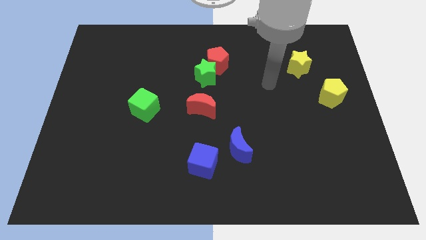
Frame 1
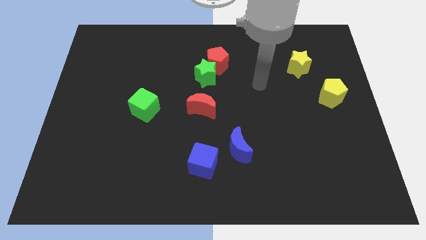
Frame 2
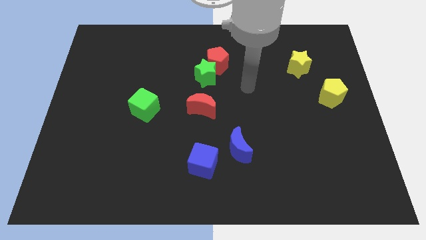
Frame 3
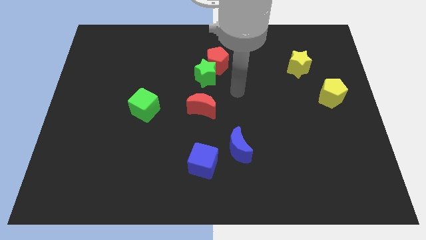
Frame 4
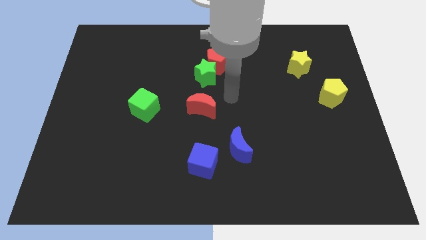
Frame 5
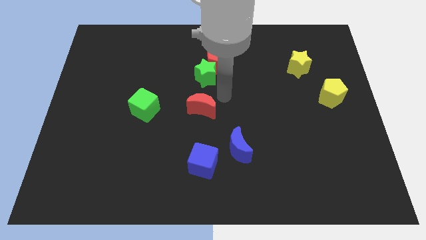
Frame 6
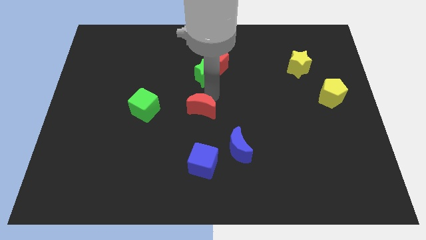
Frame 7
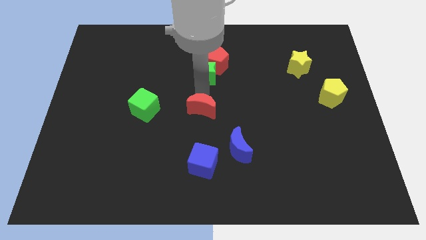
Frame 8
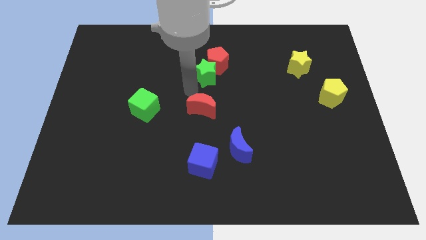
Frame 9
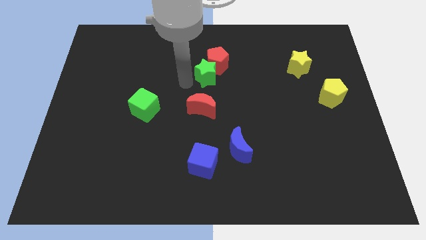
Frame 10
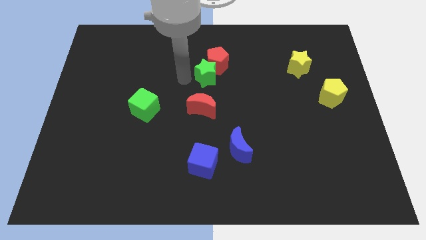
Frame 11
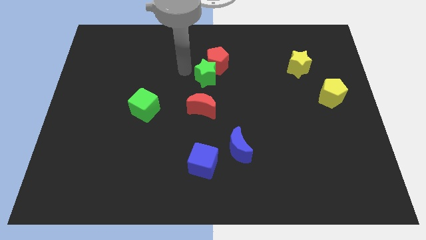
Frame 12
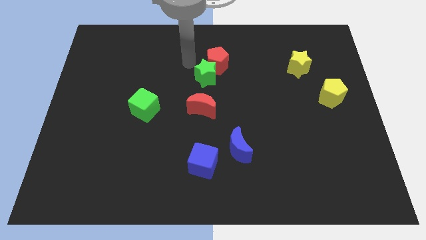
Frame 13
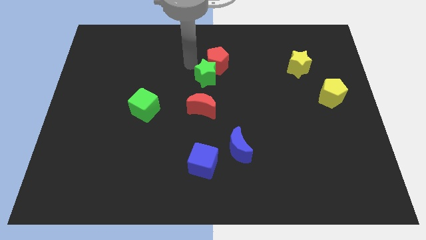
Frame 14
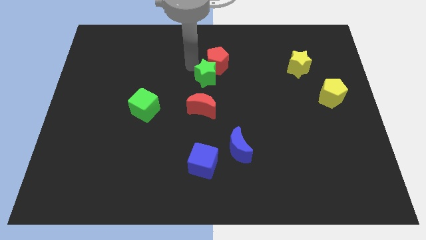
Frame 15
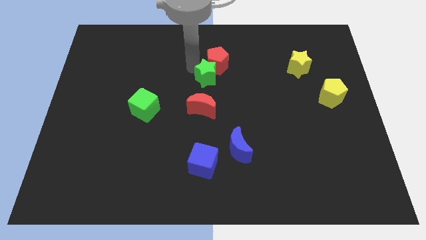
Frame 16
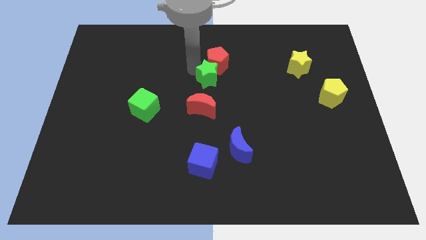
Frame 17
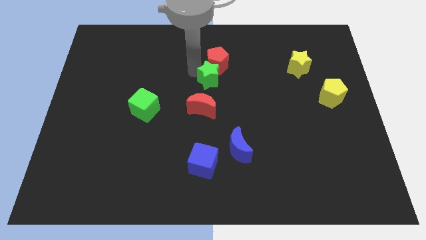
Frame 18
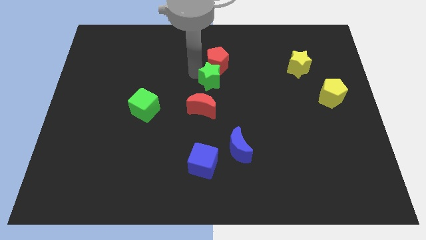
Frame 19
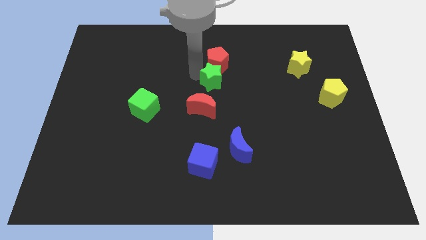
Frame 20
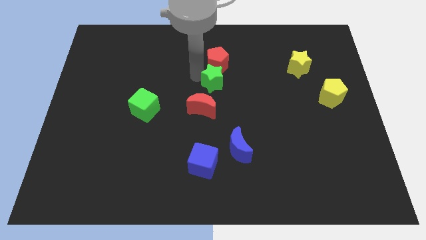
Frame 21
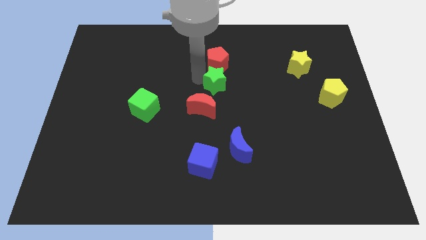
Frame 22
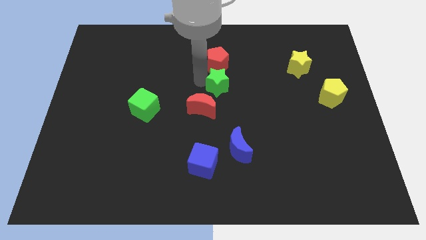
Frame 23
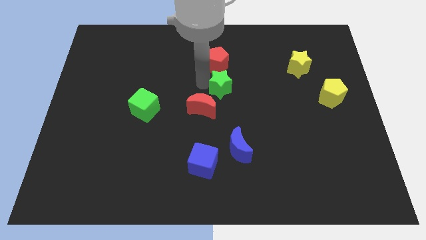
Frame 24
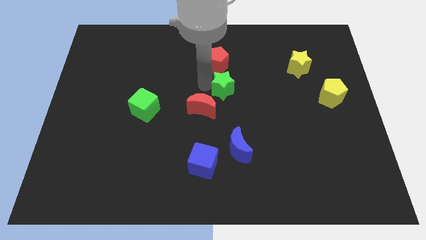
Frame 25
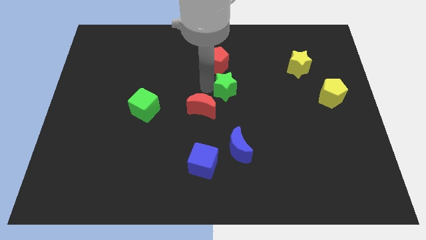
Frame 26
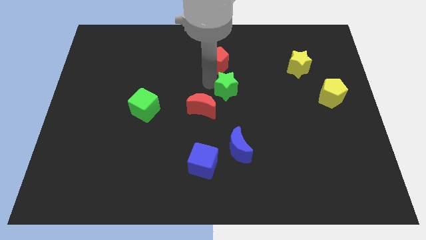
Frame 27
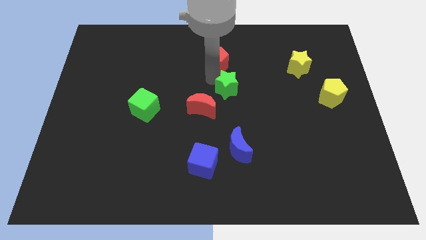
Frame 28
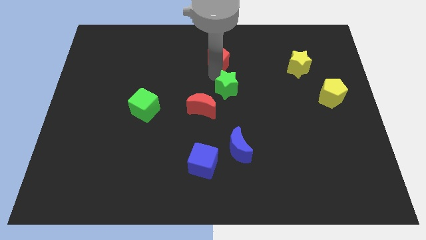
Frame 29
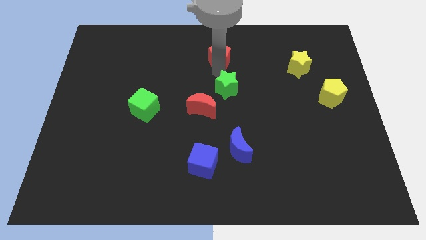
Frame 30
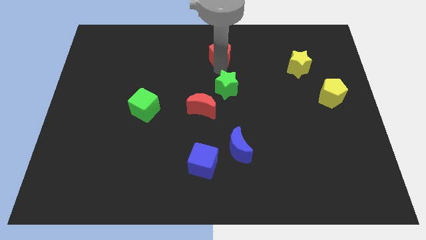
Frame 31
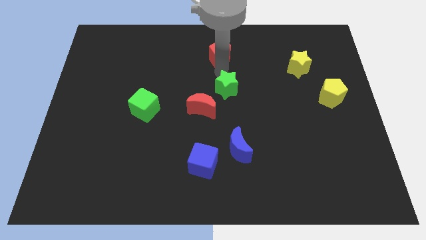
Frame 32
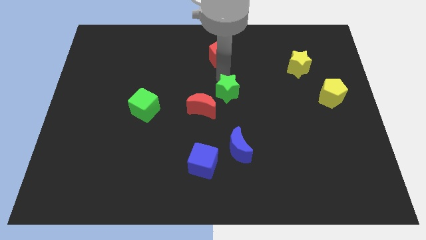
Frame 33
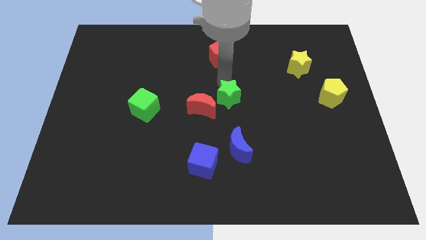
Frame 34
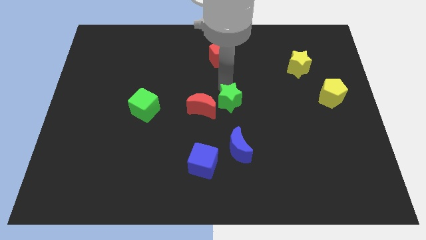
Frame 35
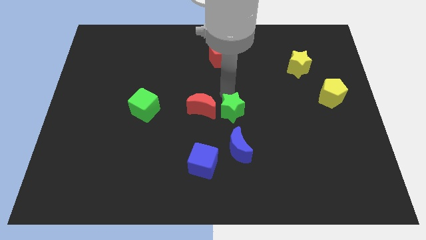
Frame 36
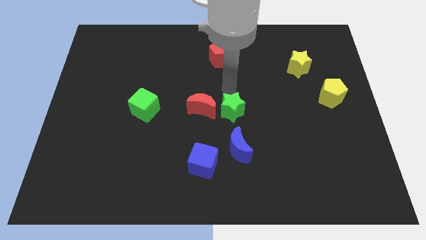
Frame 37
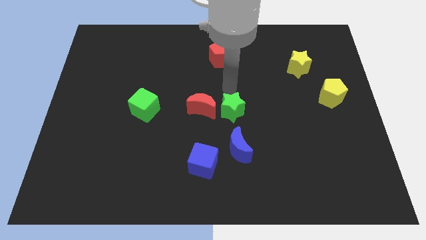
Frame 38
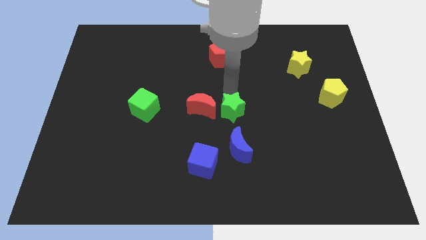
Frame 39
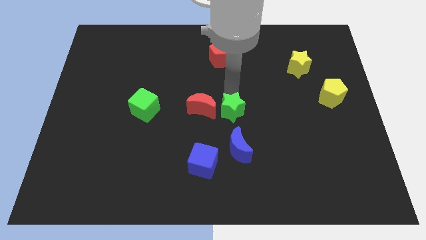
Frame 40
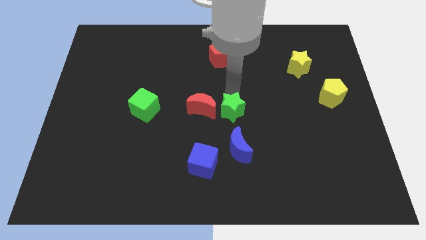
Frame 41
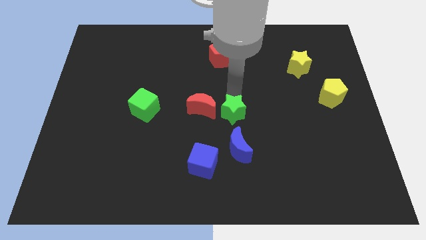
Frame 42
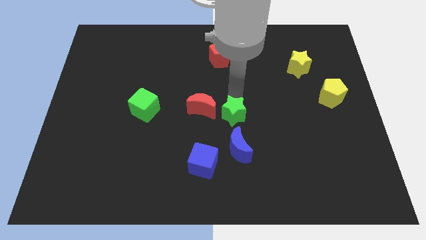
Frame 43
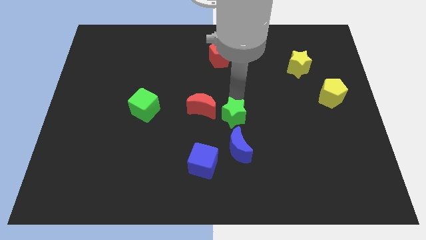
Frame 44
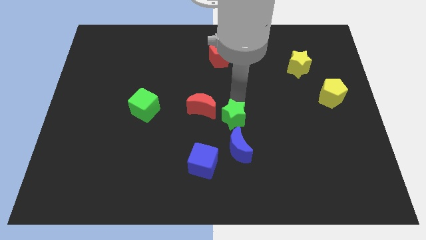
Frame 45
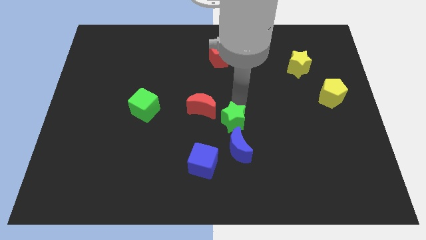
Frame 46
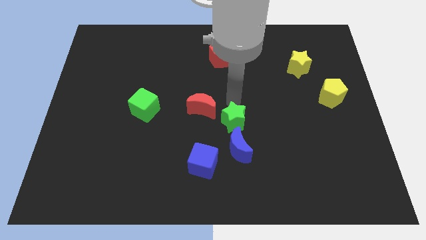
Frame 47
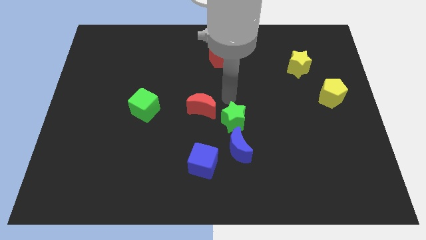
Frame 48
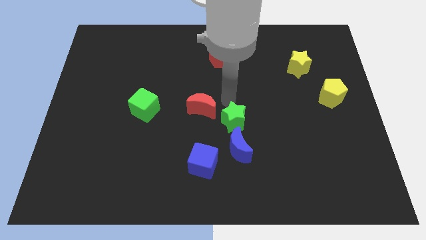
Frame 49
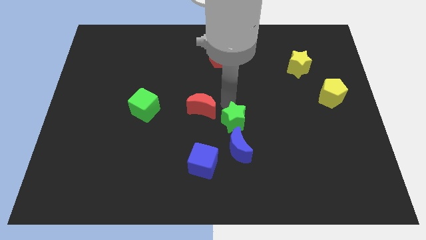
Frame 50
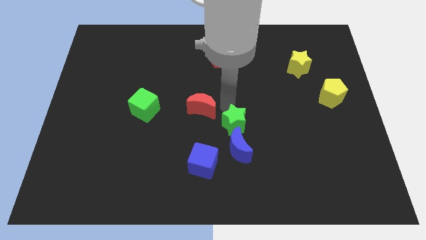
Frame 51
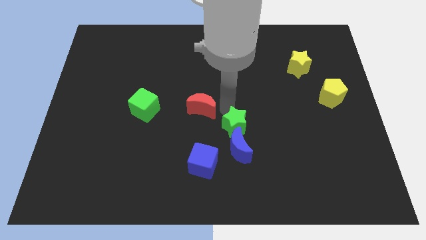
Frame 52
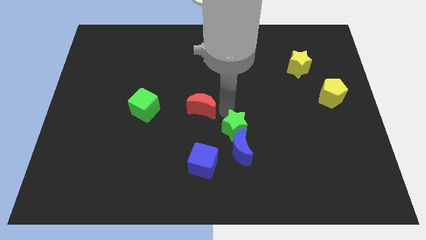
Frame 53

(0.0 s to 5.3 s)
put the green star close to the blue moon

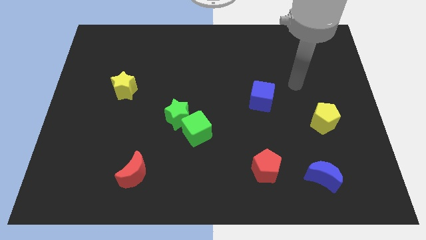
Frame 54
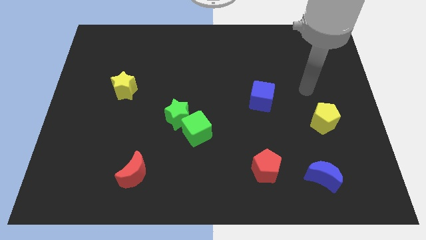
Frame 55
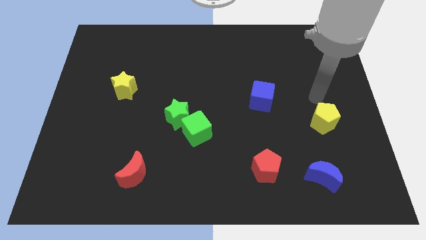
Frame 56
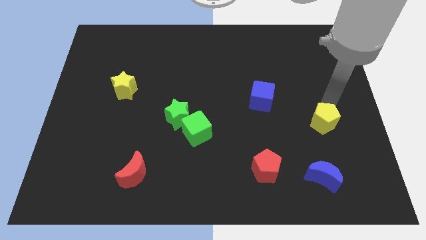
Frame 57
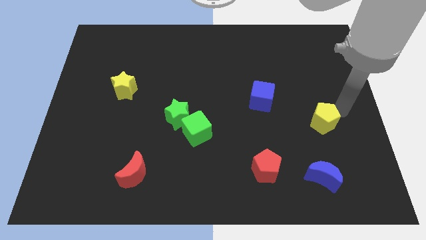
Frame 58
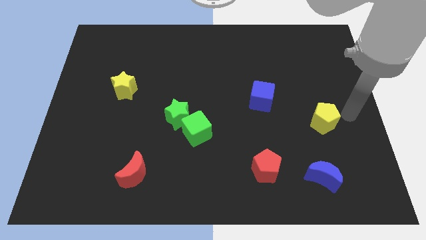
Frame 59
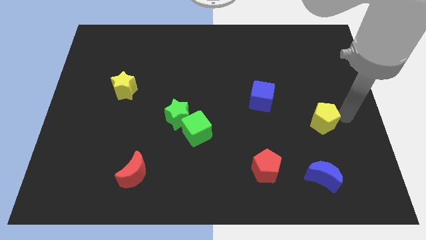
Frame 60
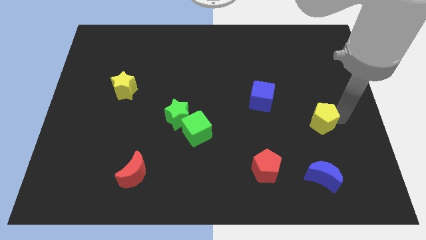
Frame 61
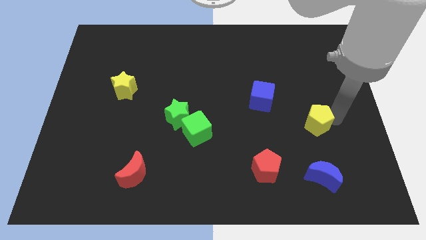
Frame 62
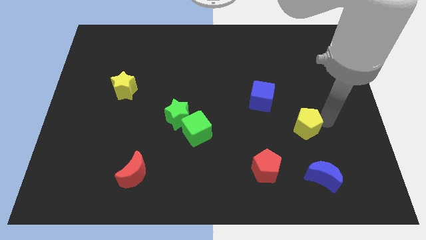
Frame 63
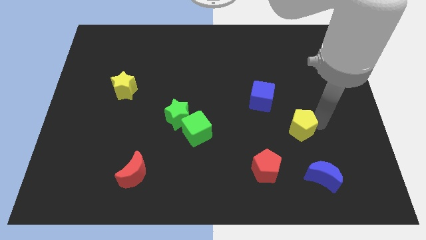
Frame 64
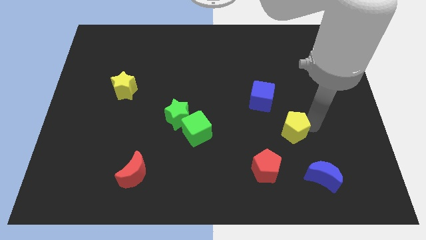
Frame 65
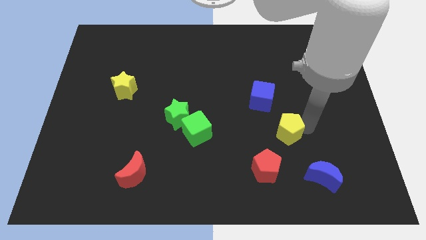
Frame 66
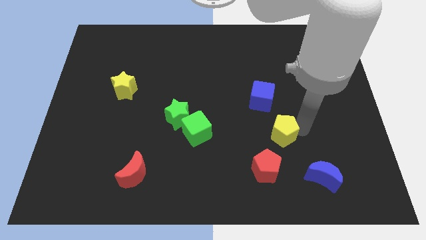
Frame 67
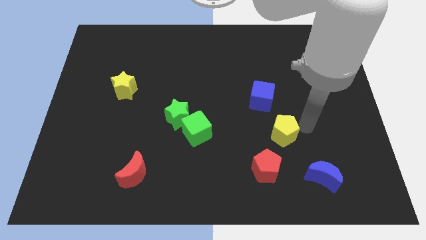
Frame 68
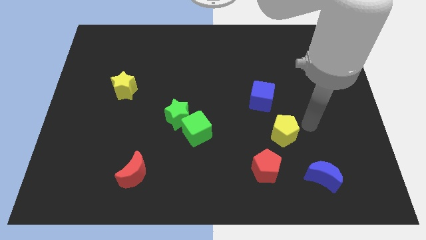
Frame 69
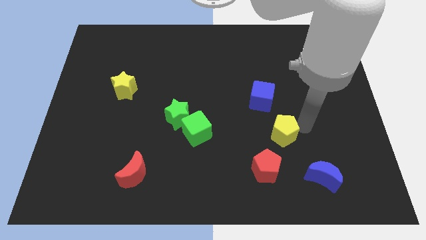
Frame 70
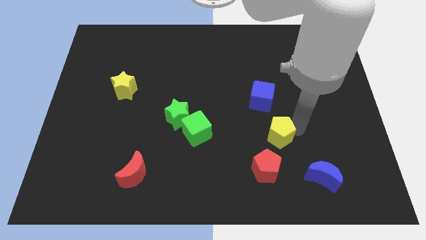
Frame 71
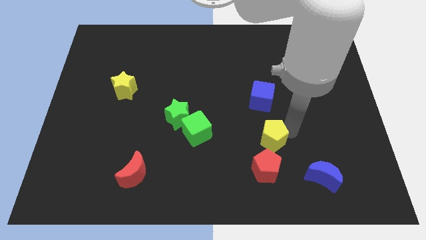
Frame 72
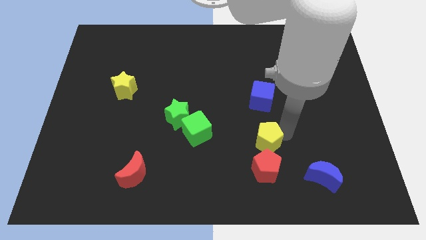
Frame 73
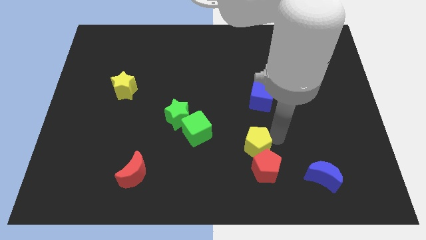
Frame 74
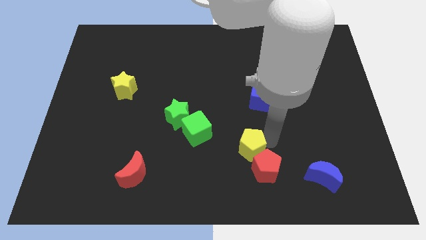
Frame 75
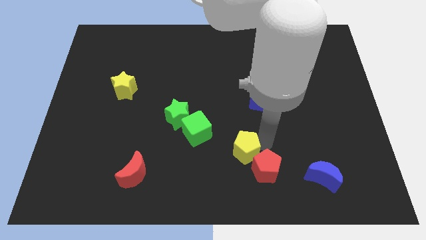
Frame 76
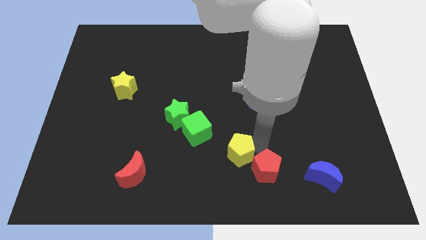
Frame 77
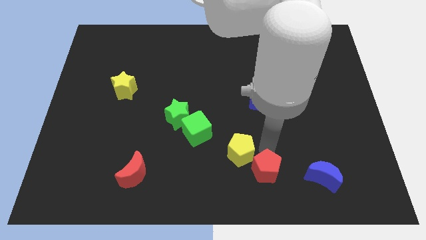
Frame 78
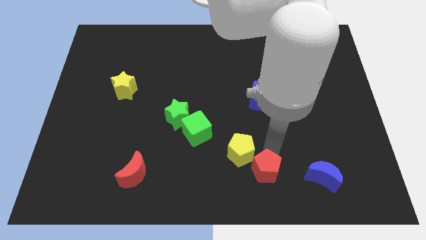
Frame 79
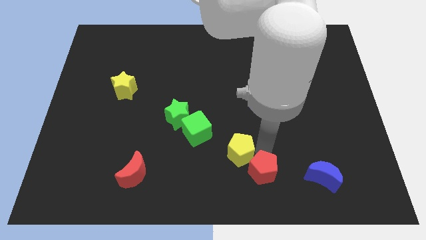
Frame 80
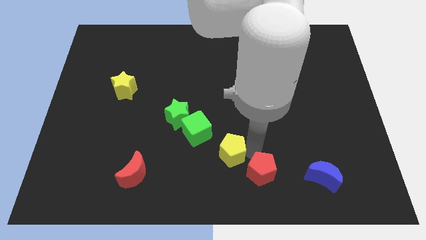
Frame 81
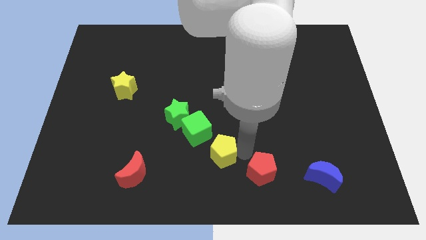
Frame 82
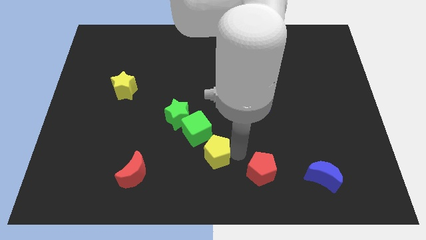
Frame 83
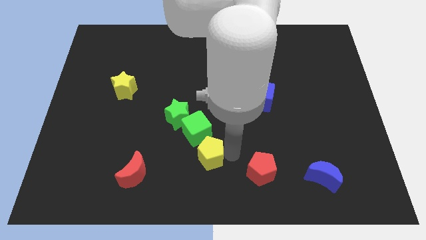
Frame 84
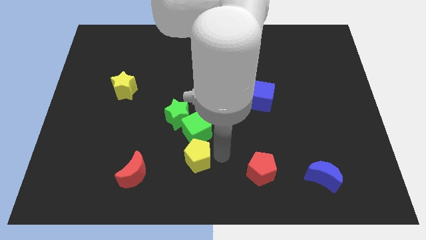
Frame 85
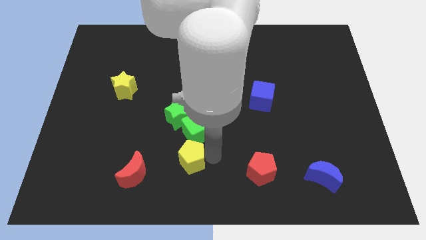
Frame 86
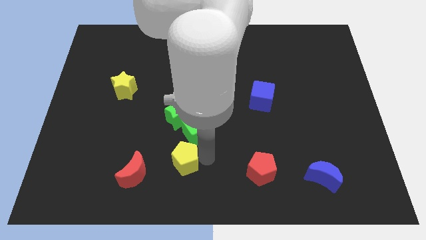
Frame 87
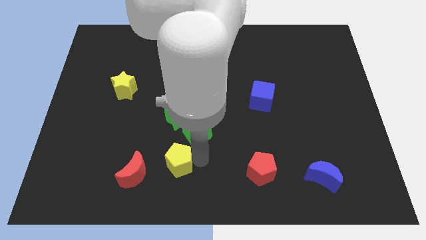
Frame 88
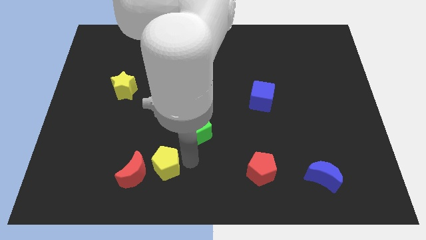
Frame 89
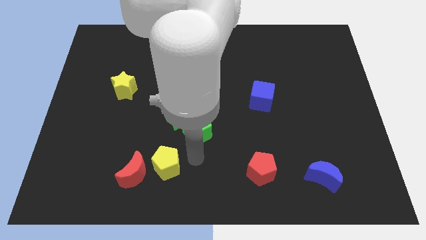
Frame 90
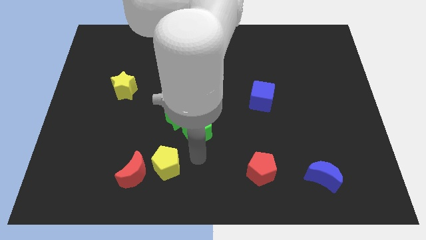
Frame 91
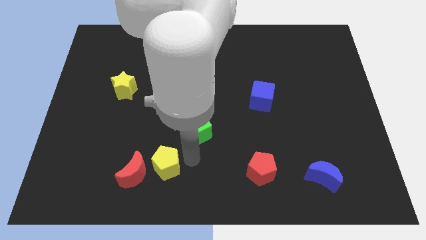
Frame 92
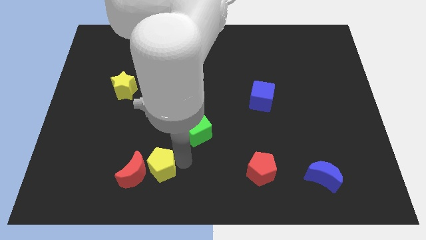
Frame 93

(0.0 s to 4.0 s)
put the yellow pentagon next to the red moon
